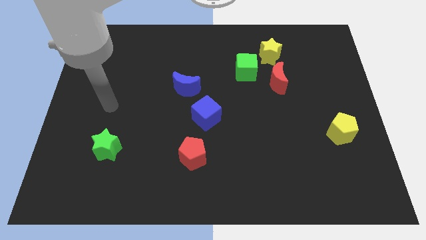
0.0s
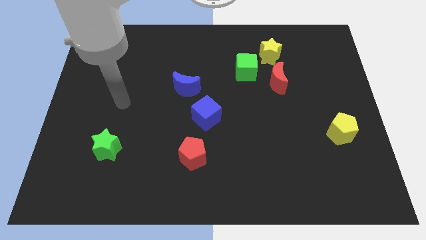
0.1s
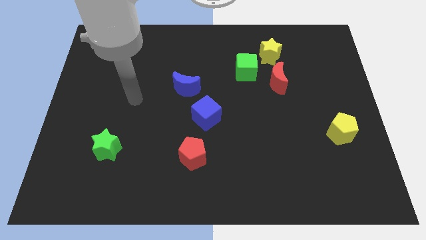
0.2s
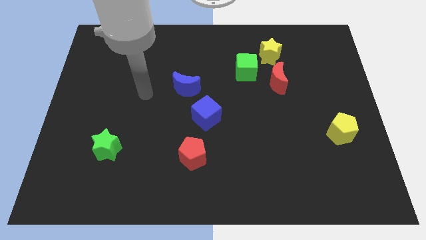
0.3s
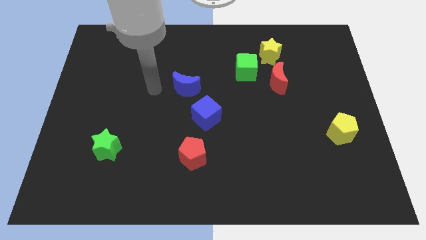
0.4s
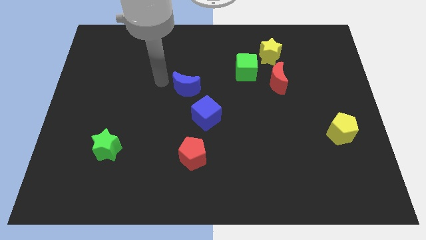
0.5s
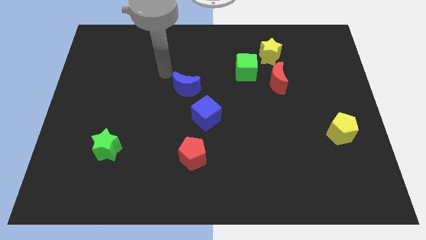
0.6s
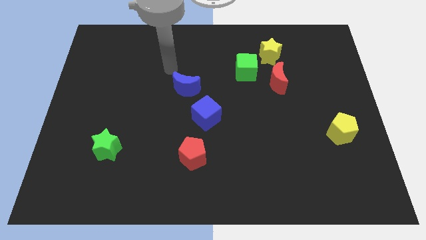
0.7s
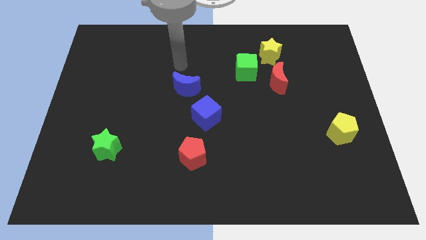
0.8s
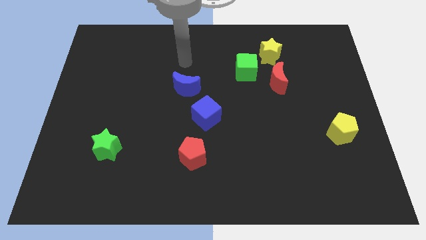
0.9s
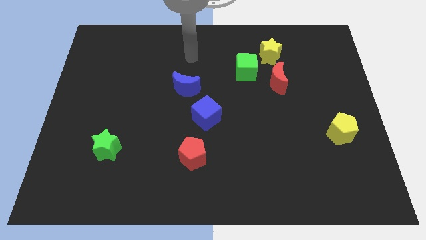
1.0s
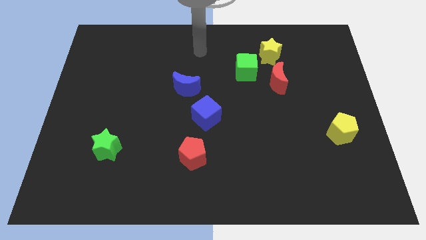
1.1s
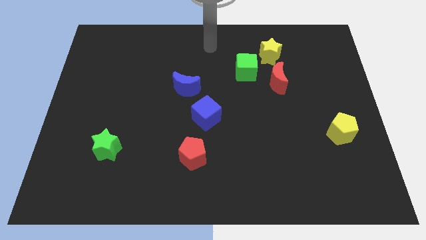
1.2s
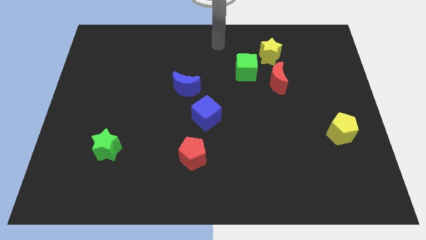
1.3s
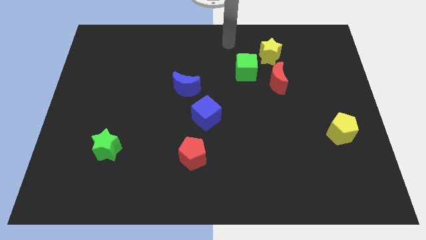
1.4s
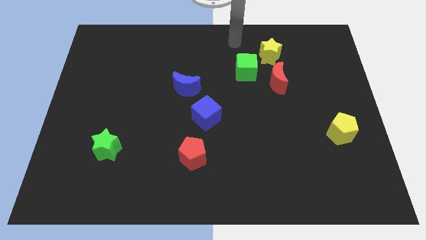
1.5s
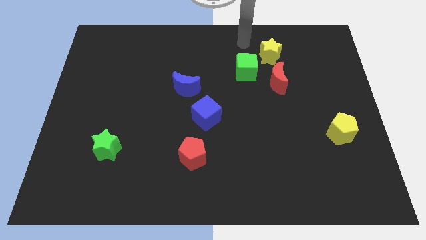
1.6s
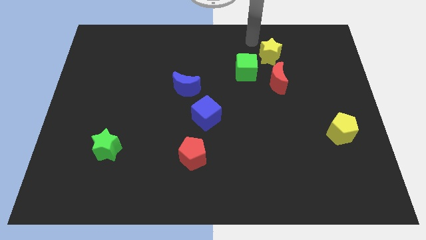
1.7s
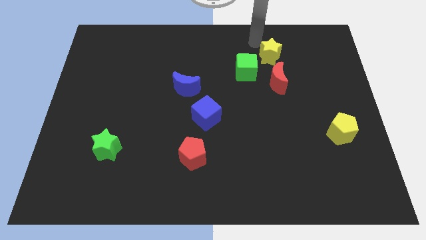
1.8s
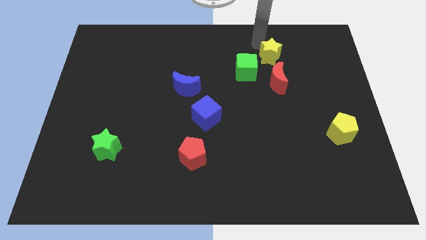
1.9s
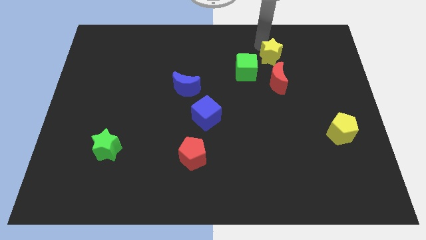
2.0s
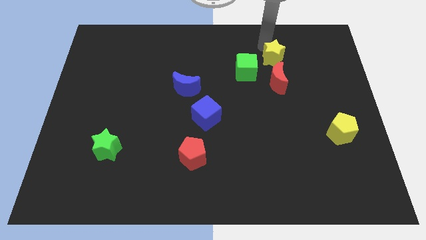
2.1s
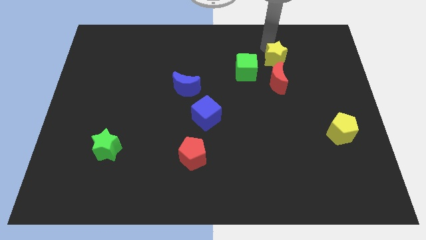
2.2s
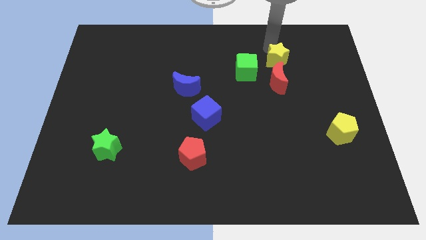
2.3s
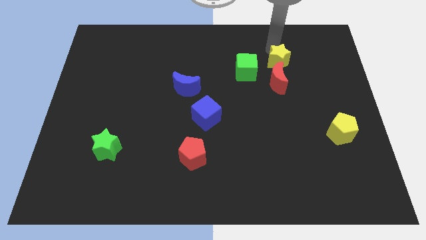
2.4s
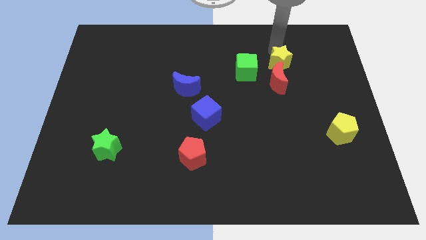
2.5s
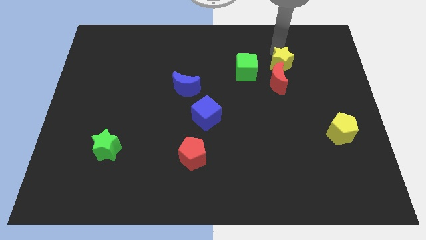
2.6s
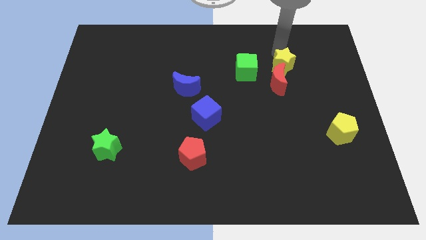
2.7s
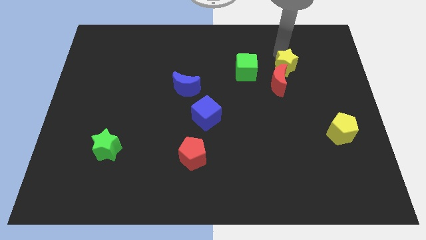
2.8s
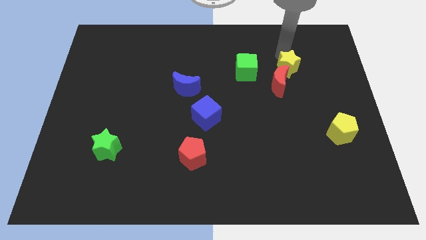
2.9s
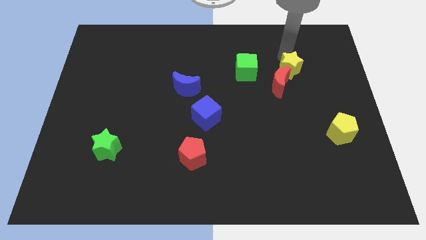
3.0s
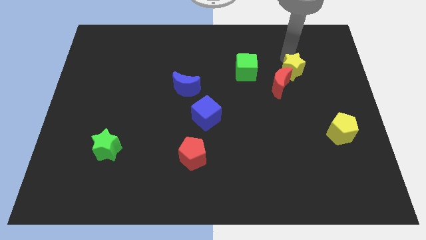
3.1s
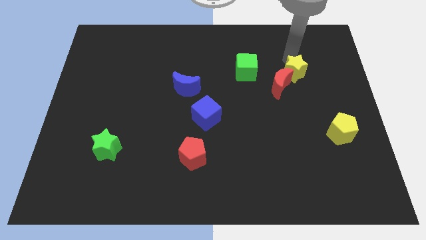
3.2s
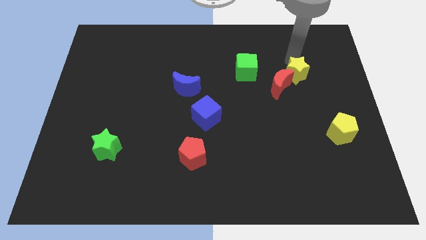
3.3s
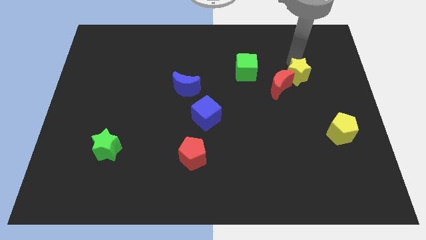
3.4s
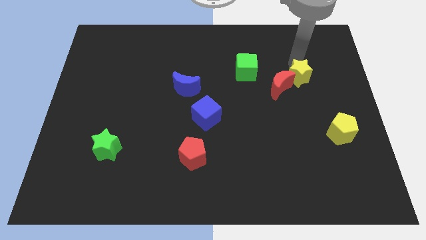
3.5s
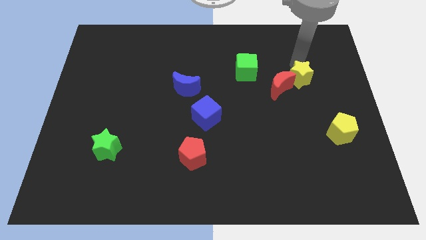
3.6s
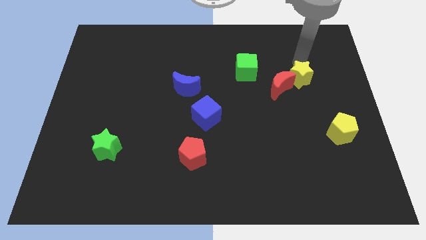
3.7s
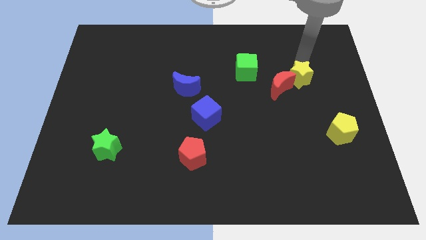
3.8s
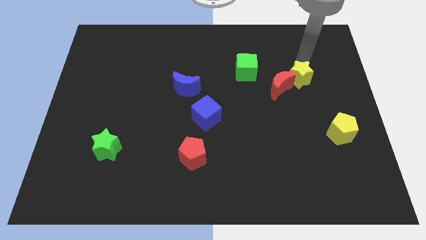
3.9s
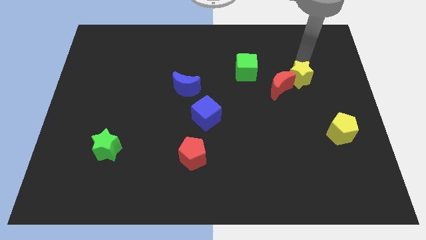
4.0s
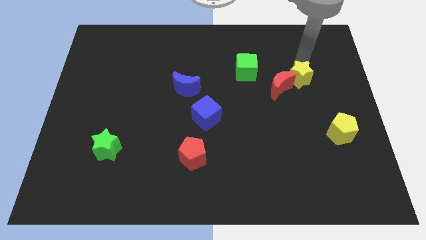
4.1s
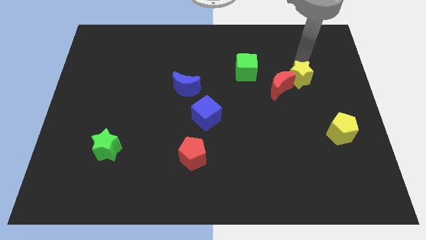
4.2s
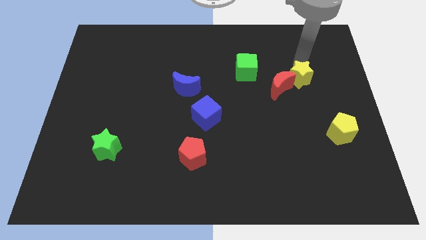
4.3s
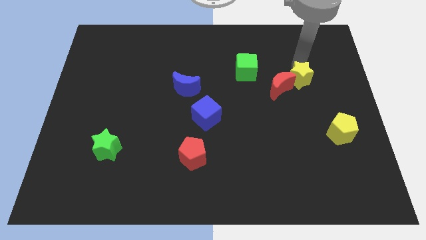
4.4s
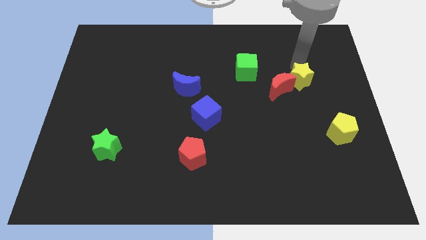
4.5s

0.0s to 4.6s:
slide the yellow star a little bit downwards

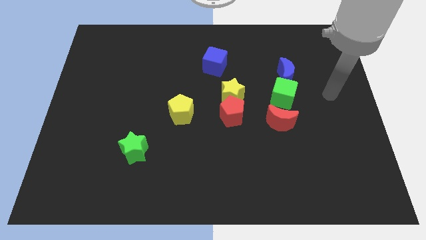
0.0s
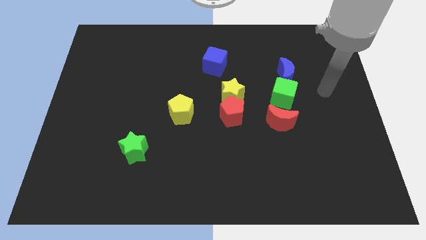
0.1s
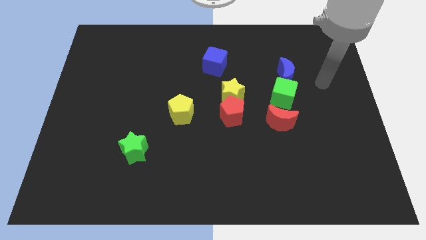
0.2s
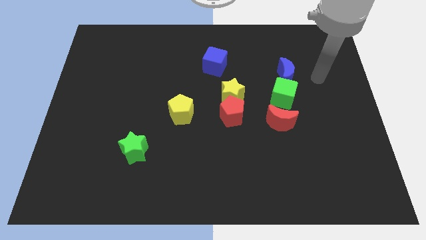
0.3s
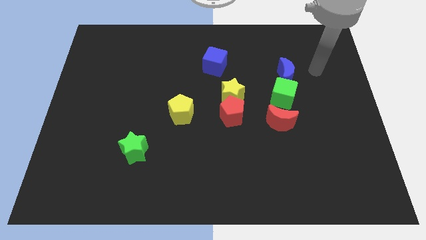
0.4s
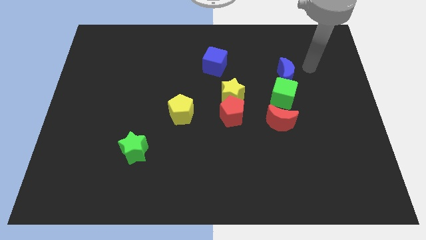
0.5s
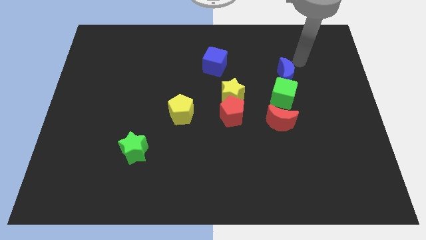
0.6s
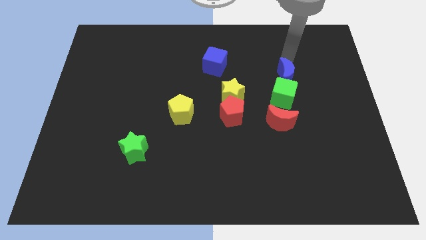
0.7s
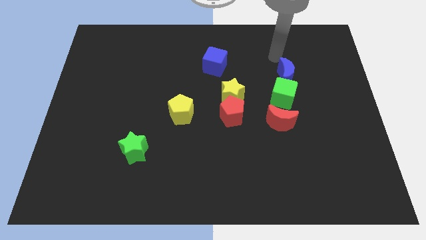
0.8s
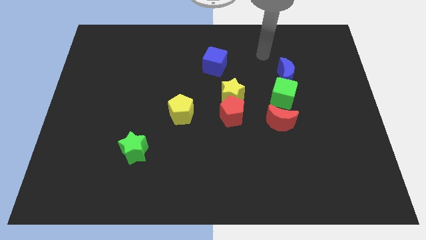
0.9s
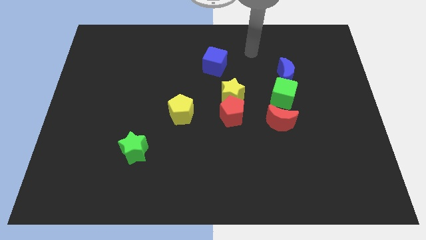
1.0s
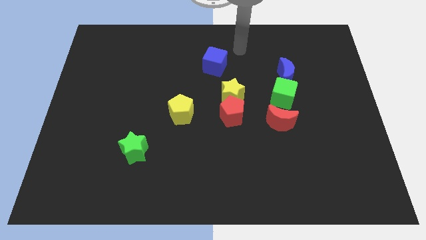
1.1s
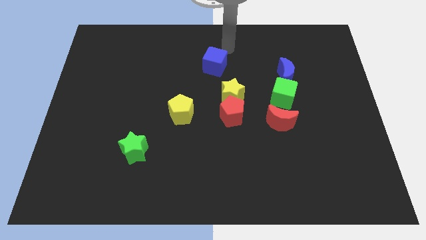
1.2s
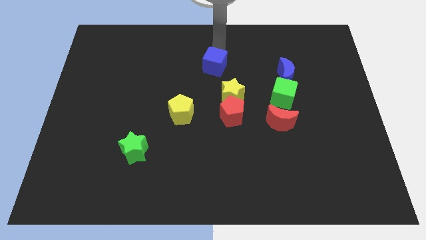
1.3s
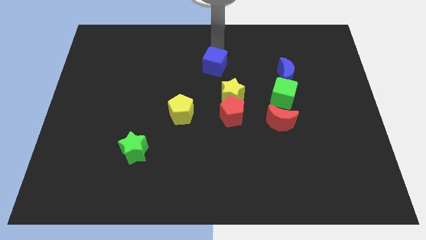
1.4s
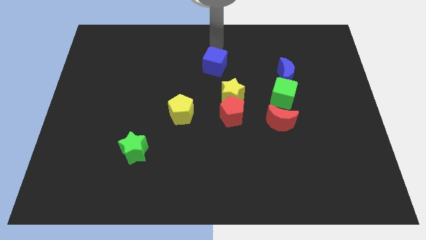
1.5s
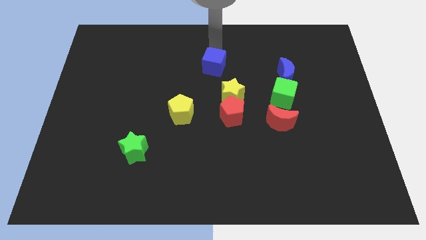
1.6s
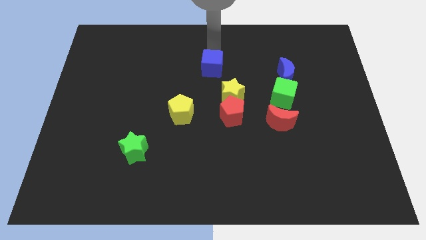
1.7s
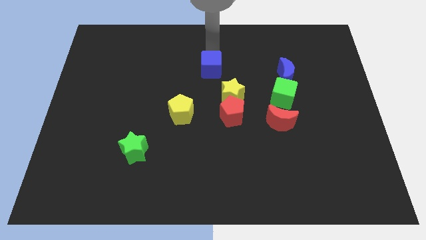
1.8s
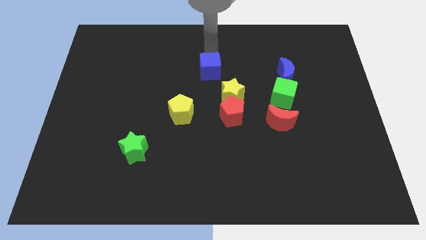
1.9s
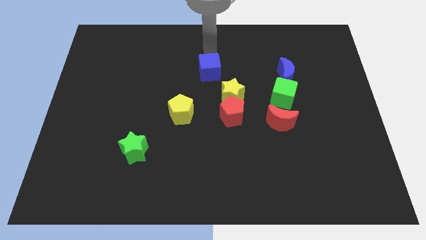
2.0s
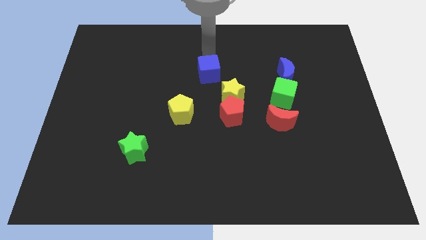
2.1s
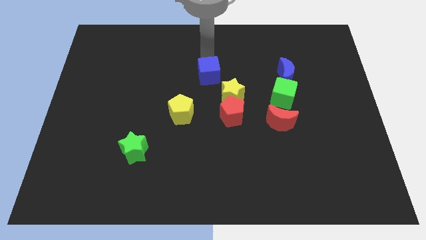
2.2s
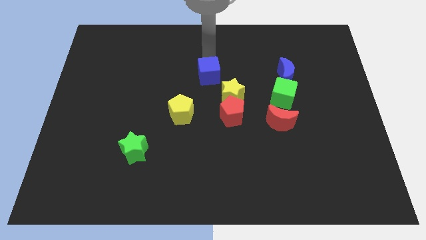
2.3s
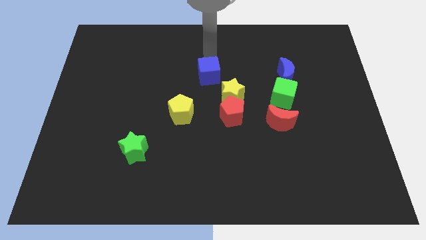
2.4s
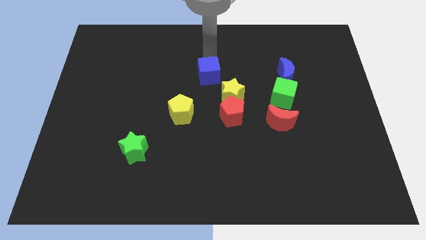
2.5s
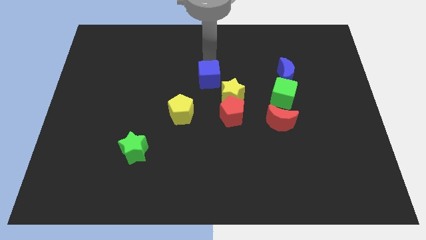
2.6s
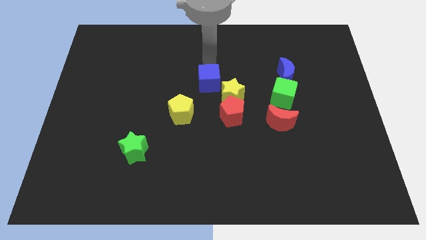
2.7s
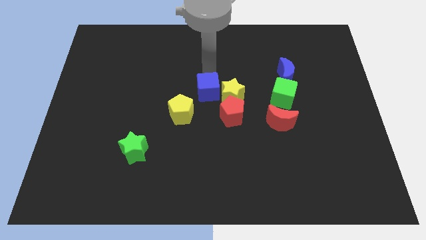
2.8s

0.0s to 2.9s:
slide the blue cube down a little bit

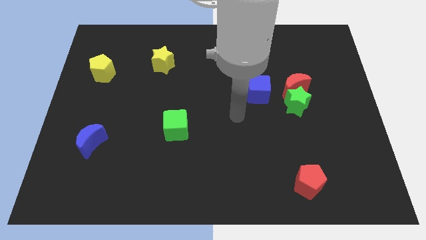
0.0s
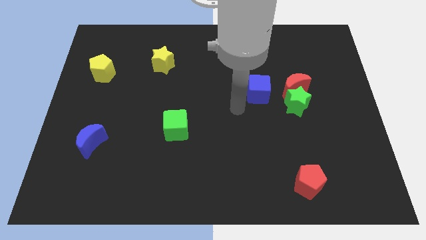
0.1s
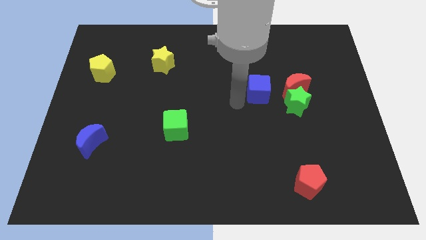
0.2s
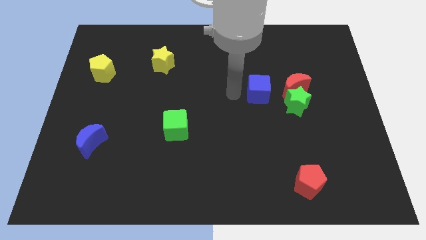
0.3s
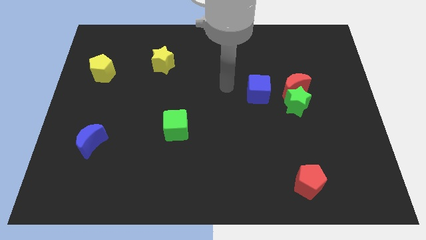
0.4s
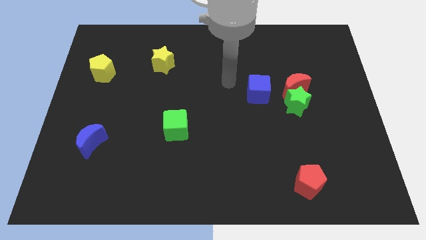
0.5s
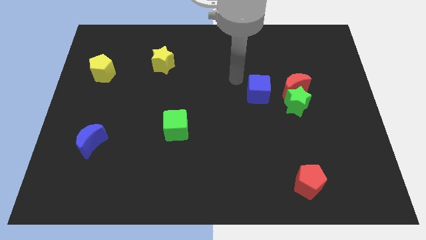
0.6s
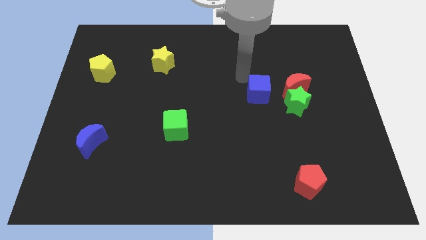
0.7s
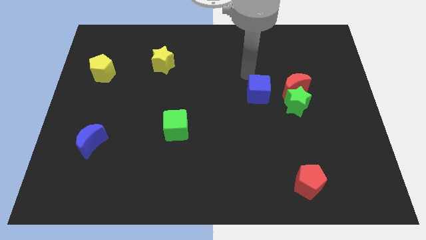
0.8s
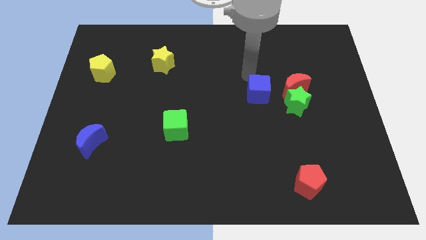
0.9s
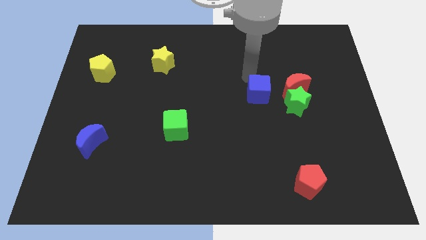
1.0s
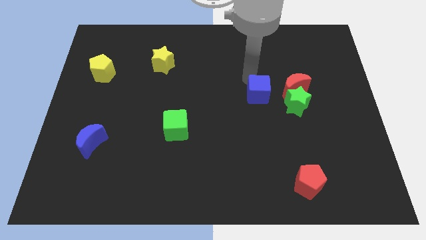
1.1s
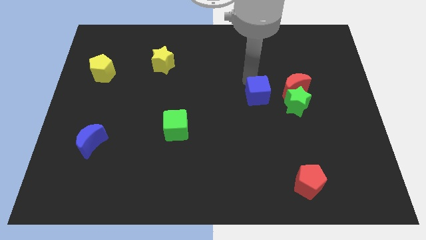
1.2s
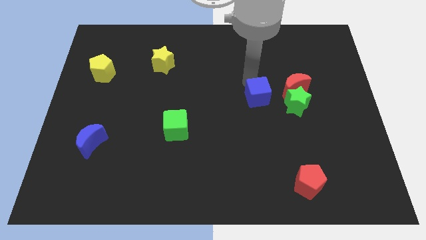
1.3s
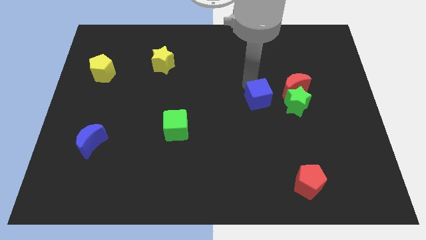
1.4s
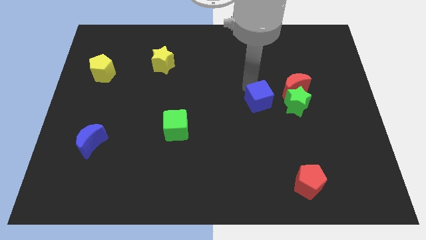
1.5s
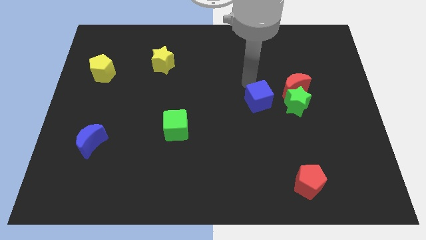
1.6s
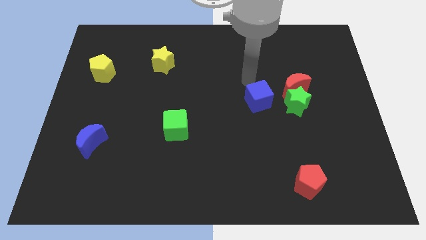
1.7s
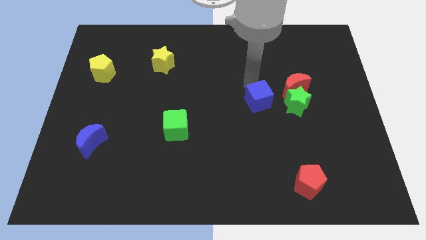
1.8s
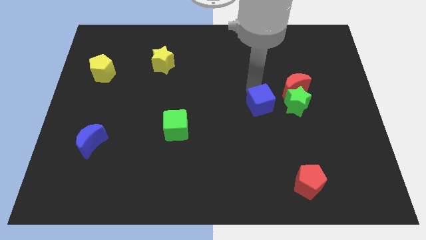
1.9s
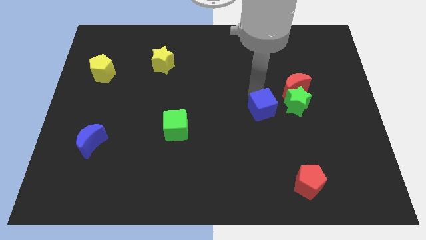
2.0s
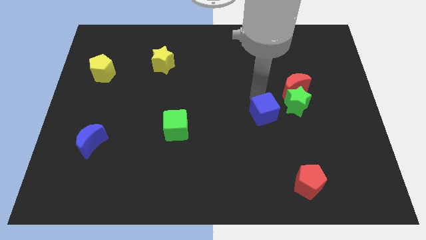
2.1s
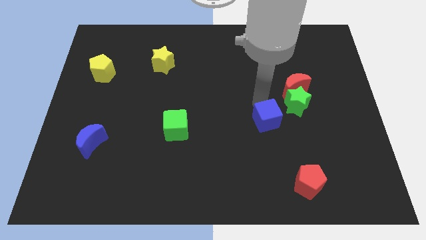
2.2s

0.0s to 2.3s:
push the blue cube a little downwards
